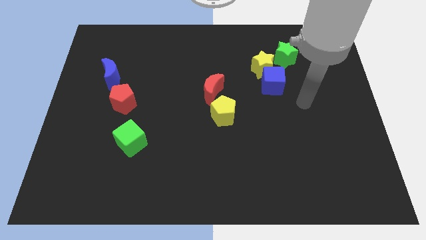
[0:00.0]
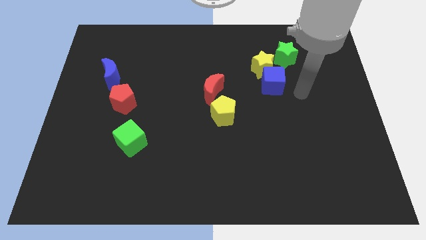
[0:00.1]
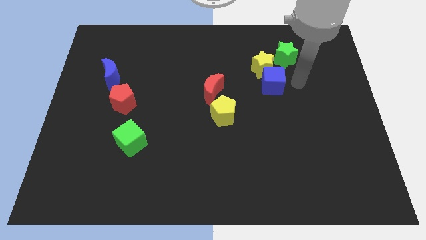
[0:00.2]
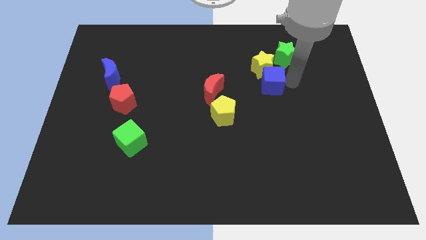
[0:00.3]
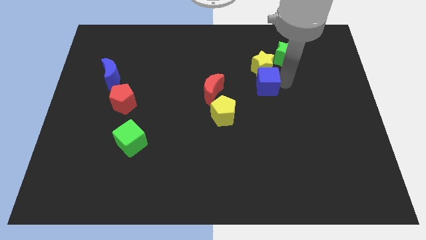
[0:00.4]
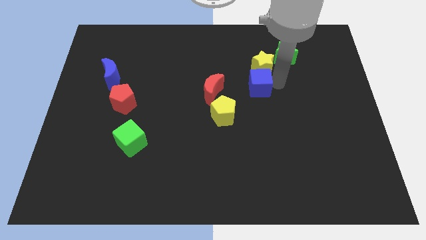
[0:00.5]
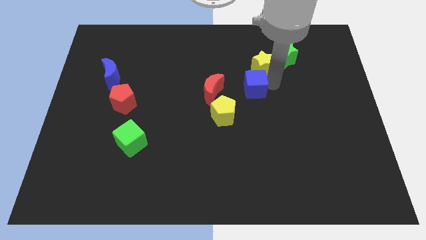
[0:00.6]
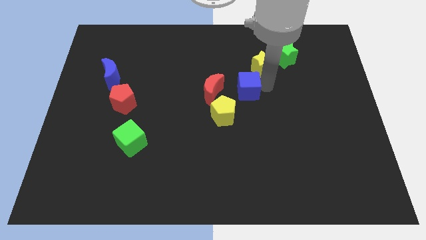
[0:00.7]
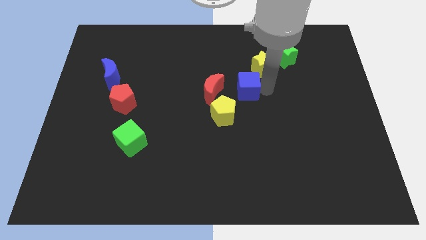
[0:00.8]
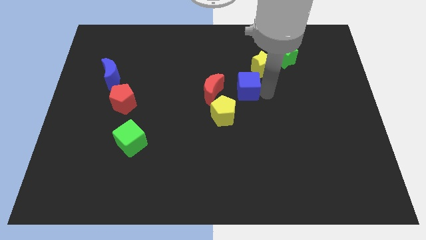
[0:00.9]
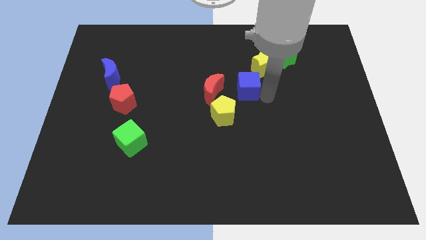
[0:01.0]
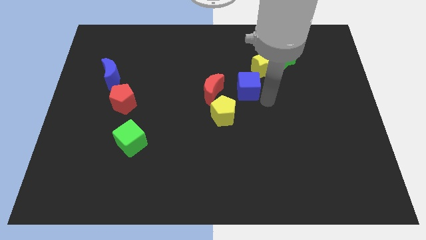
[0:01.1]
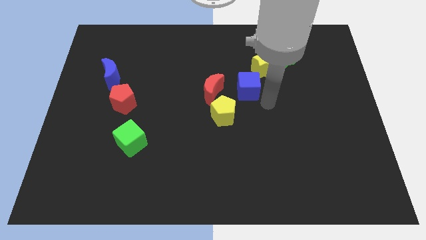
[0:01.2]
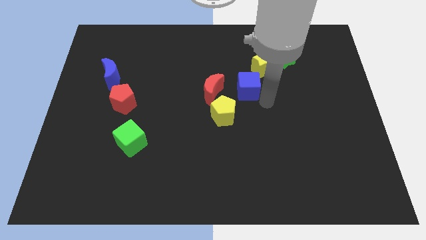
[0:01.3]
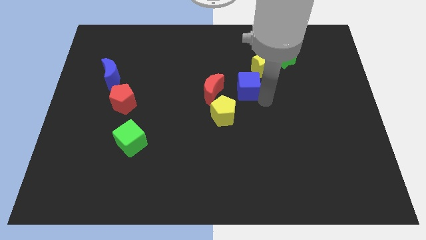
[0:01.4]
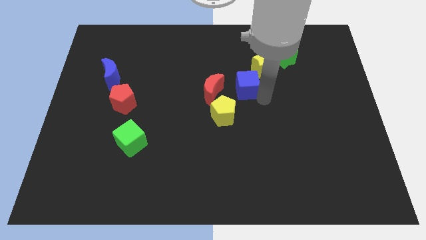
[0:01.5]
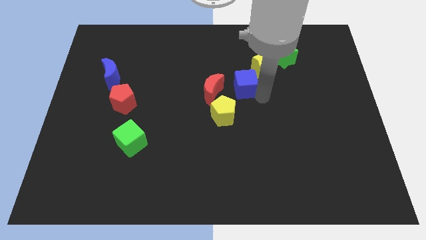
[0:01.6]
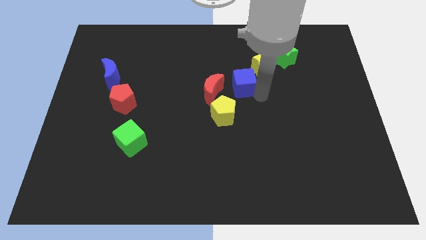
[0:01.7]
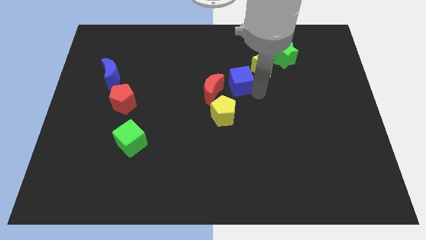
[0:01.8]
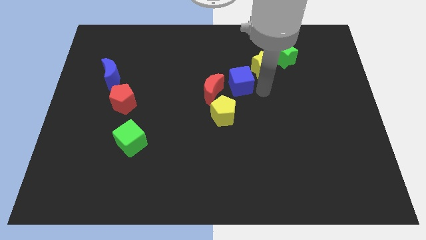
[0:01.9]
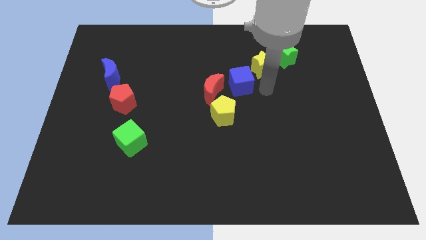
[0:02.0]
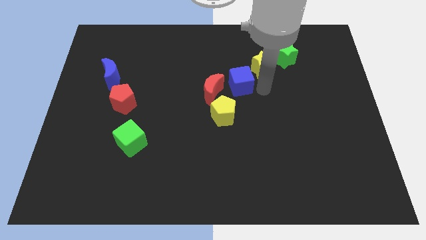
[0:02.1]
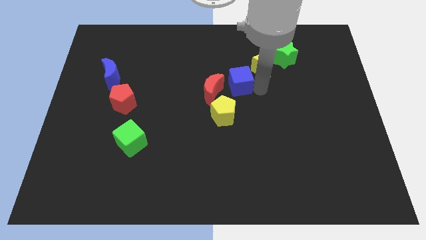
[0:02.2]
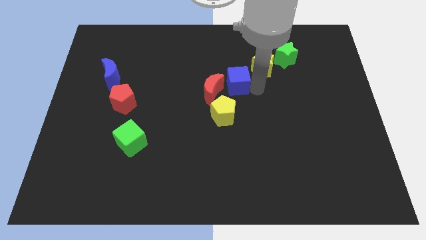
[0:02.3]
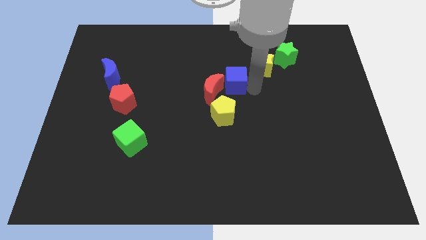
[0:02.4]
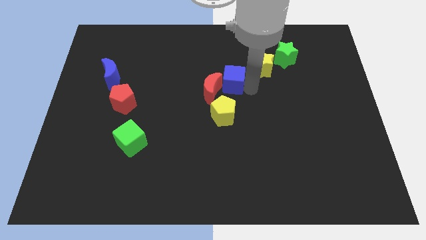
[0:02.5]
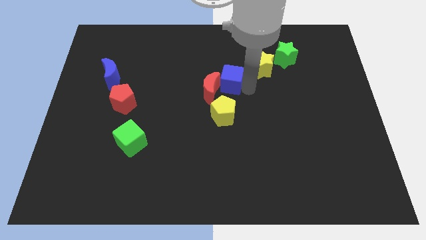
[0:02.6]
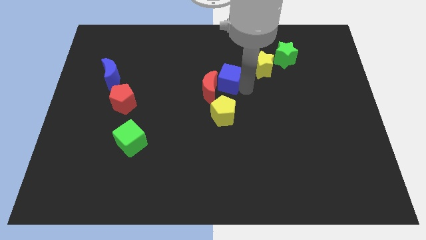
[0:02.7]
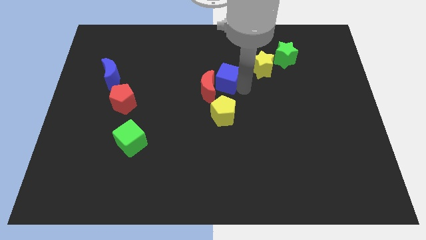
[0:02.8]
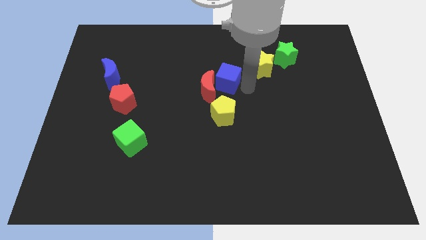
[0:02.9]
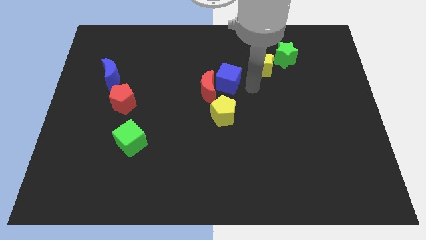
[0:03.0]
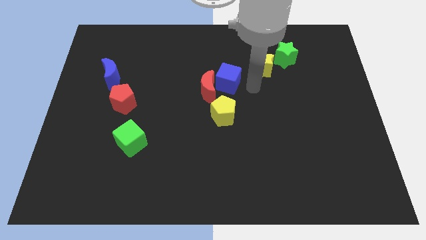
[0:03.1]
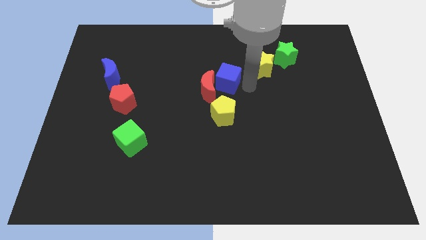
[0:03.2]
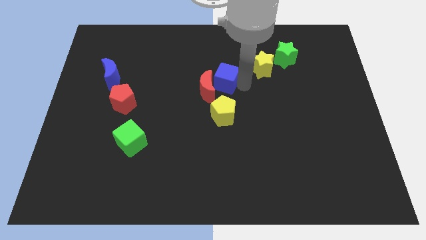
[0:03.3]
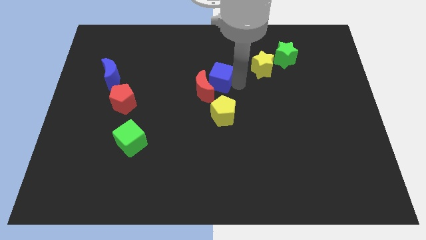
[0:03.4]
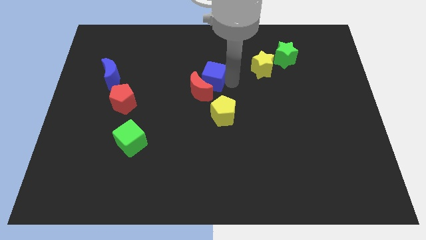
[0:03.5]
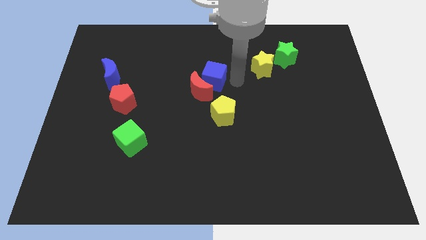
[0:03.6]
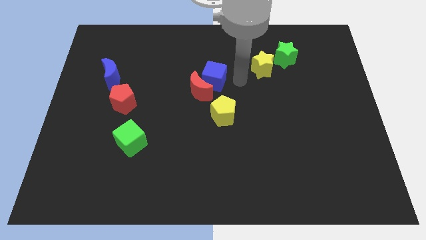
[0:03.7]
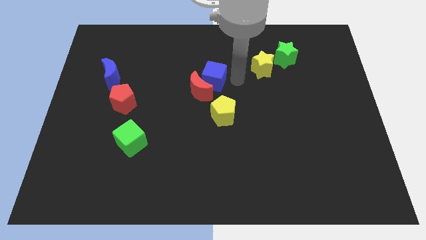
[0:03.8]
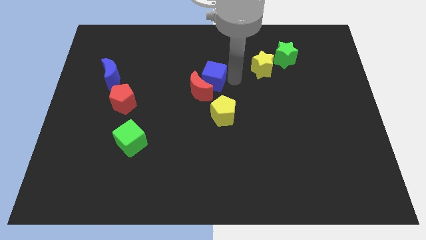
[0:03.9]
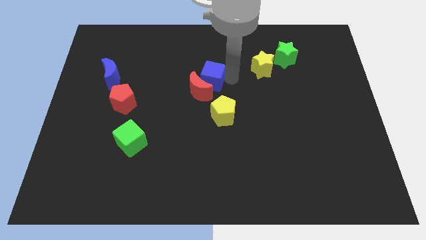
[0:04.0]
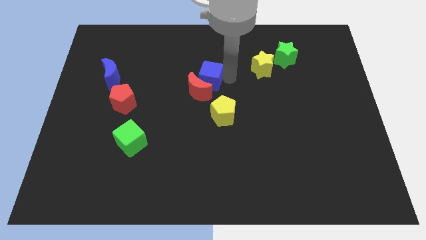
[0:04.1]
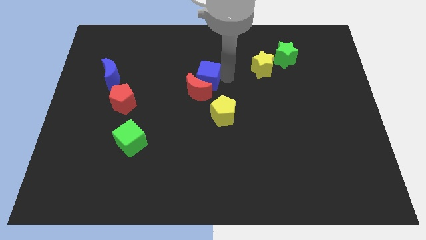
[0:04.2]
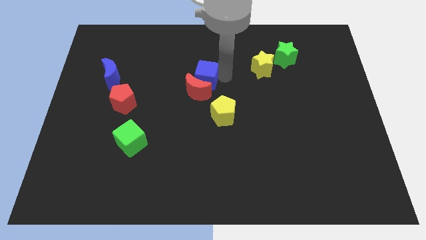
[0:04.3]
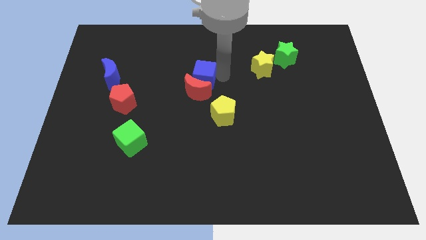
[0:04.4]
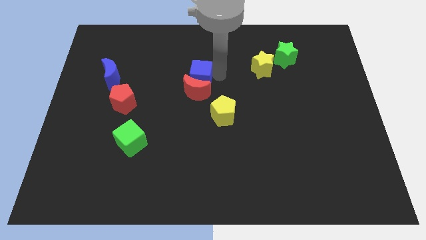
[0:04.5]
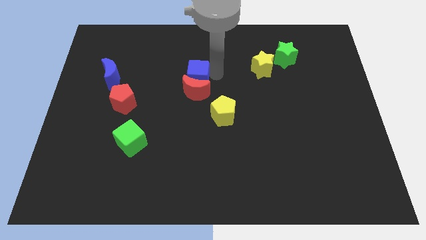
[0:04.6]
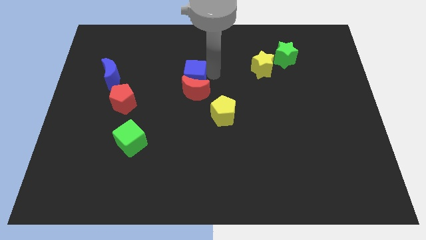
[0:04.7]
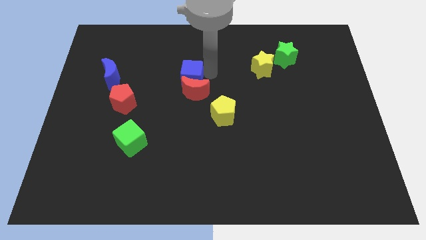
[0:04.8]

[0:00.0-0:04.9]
move the blue cube left

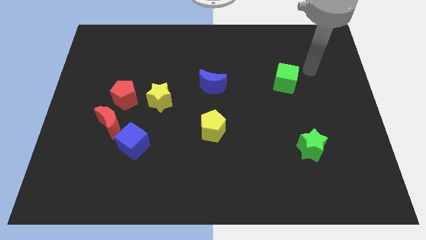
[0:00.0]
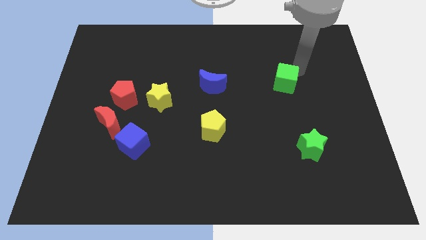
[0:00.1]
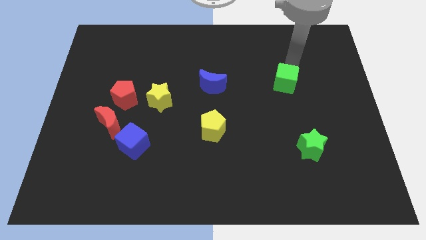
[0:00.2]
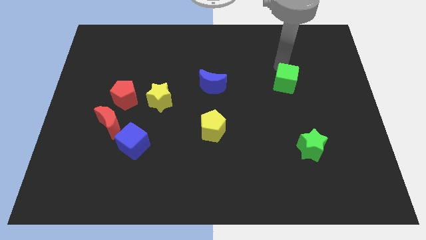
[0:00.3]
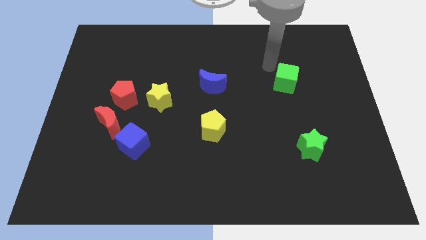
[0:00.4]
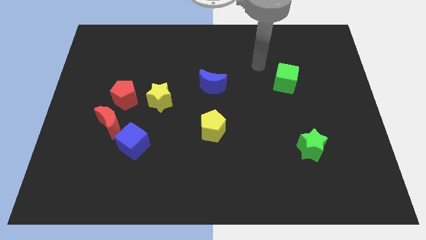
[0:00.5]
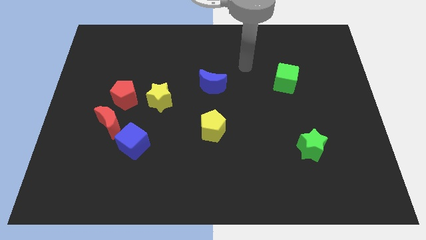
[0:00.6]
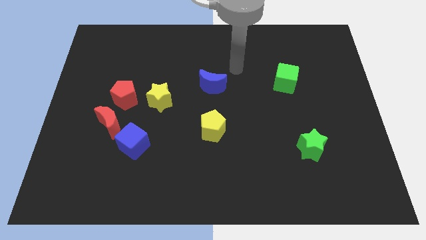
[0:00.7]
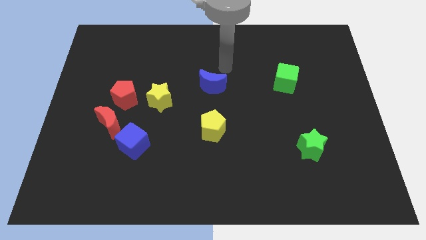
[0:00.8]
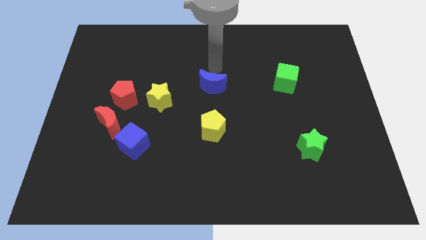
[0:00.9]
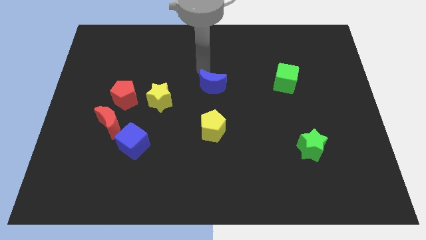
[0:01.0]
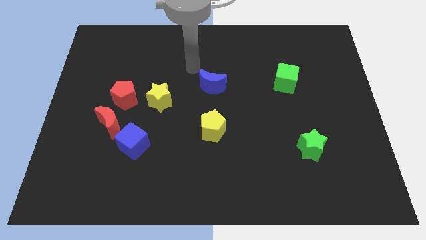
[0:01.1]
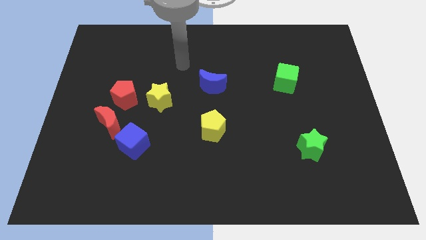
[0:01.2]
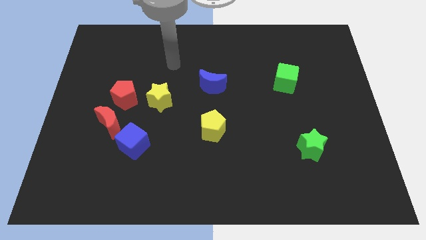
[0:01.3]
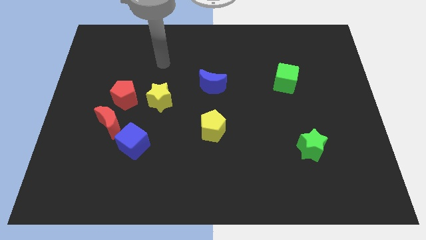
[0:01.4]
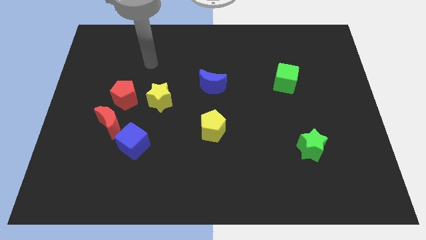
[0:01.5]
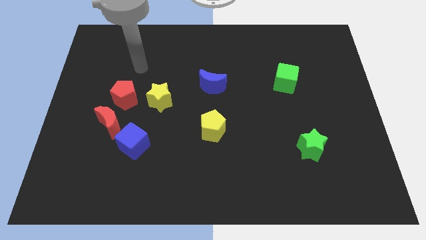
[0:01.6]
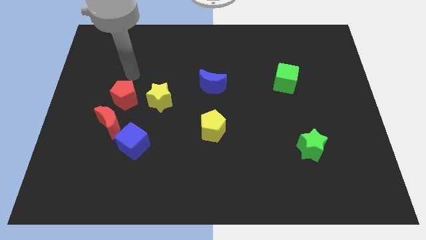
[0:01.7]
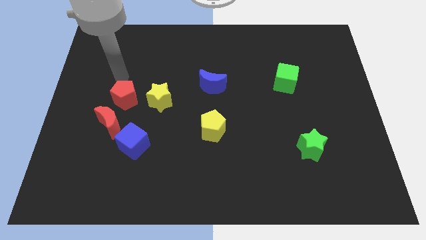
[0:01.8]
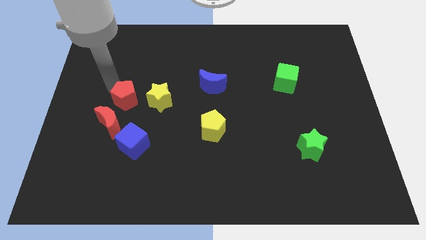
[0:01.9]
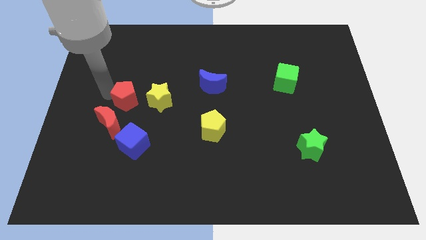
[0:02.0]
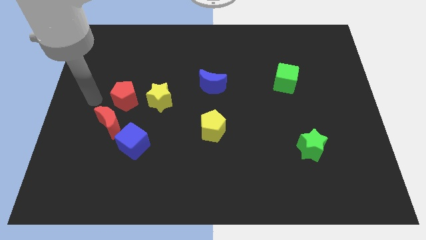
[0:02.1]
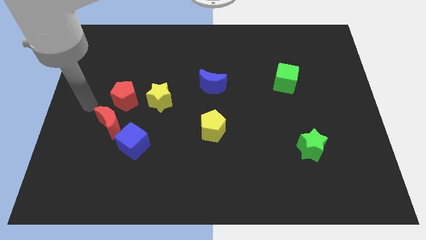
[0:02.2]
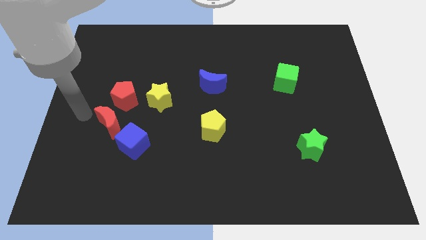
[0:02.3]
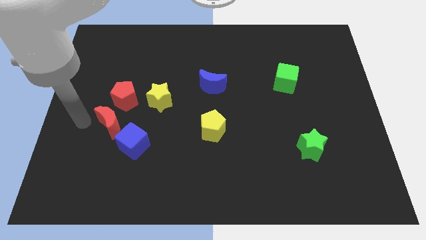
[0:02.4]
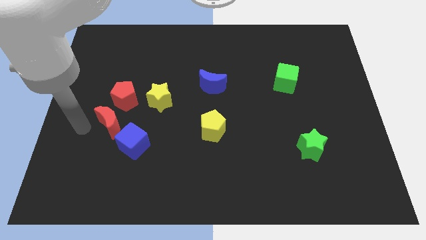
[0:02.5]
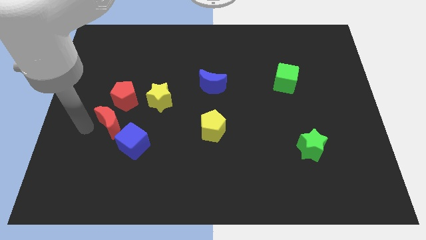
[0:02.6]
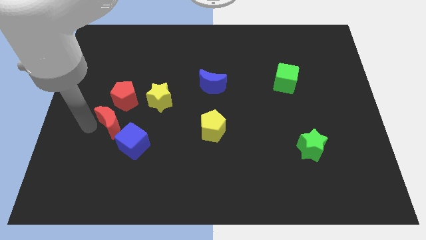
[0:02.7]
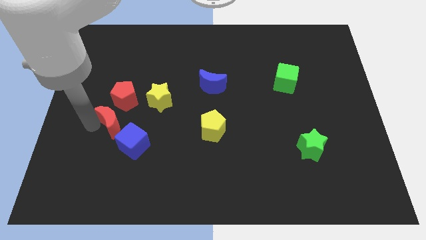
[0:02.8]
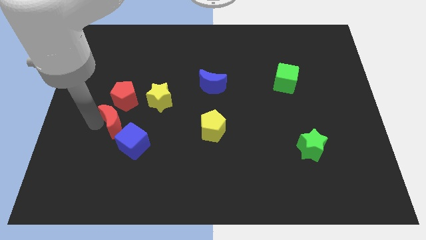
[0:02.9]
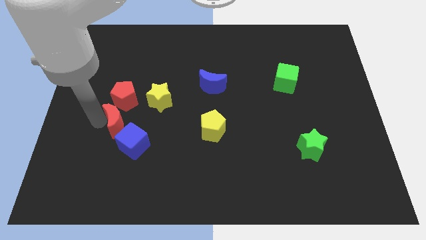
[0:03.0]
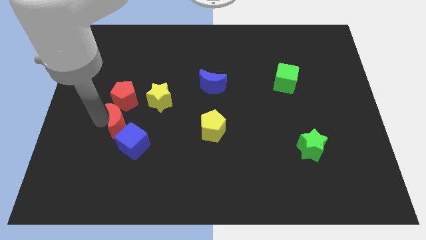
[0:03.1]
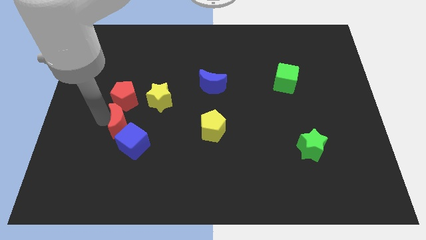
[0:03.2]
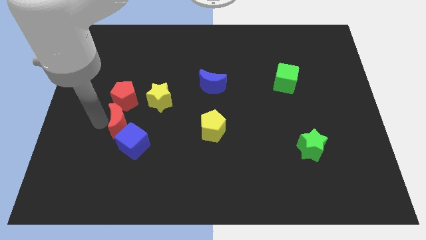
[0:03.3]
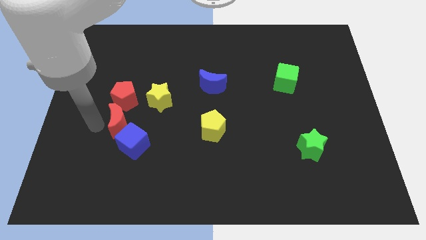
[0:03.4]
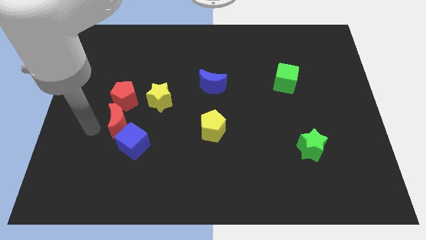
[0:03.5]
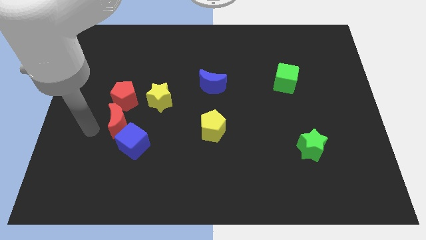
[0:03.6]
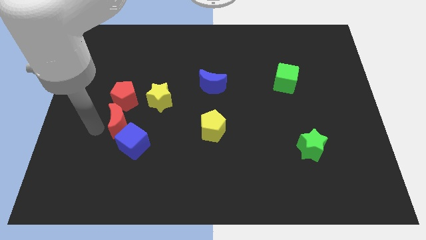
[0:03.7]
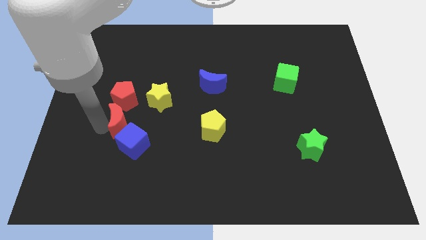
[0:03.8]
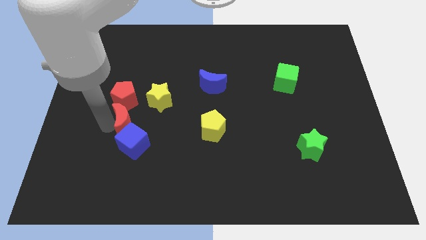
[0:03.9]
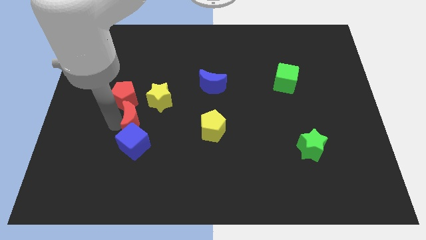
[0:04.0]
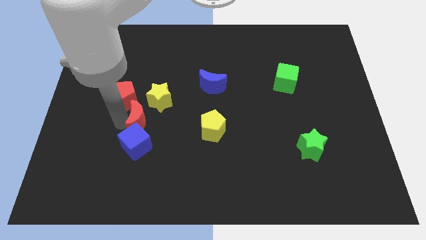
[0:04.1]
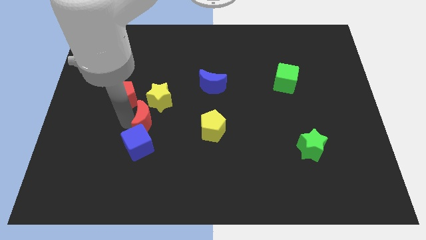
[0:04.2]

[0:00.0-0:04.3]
push the red moon somewhat right
